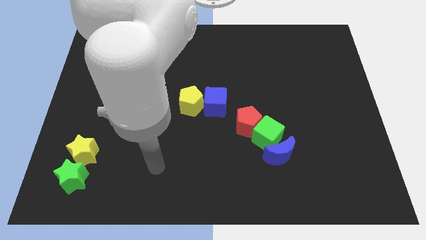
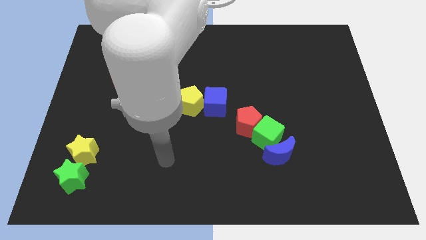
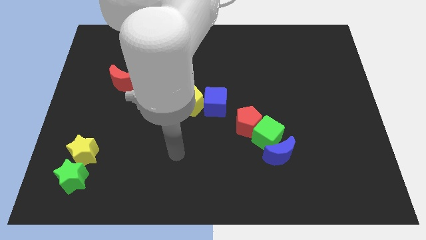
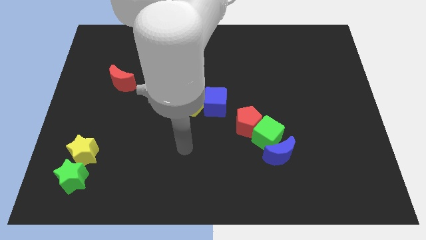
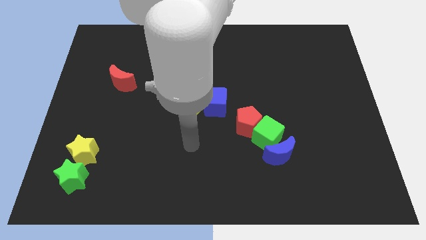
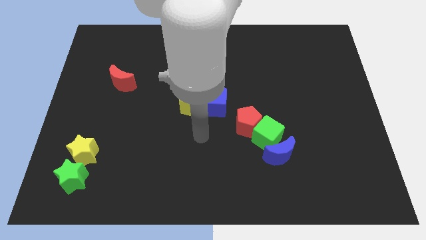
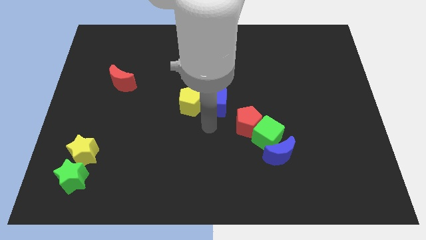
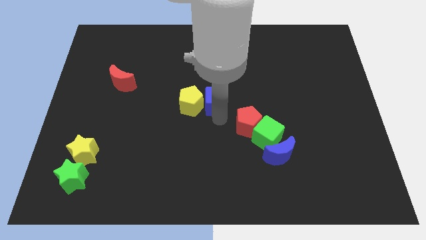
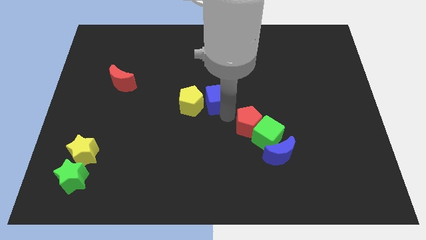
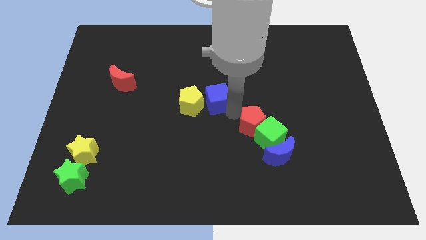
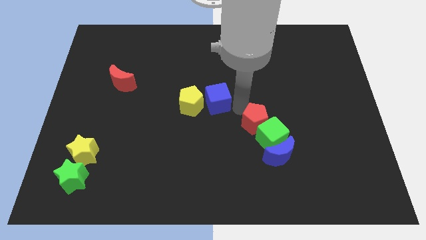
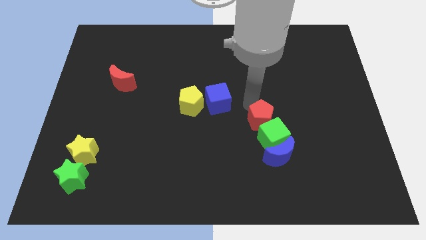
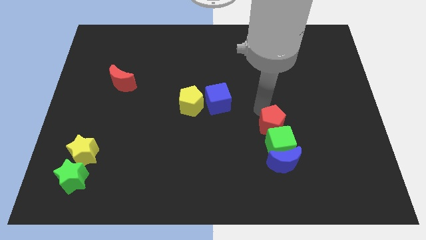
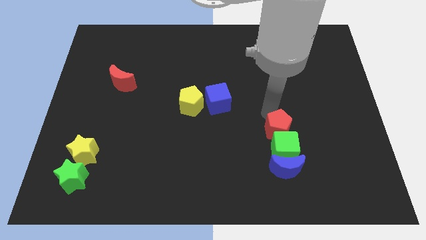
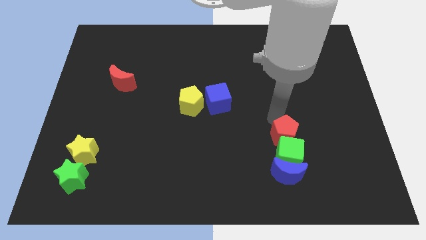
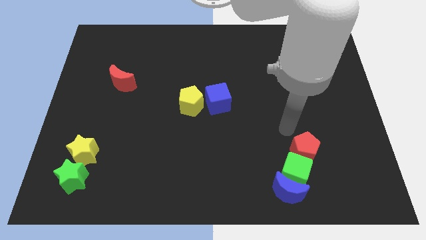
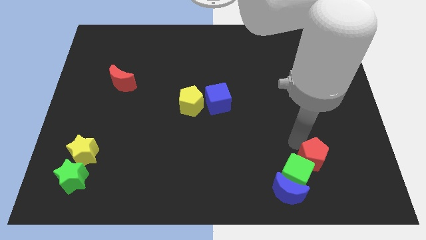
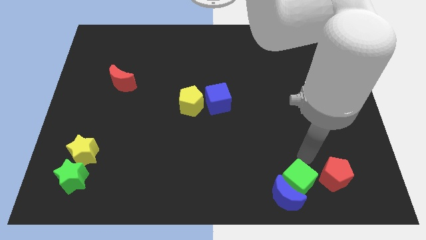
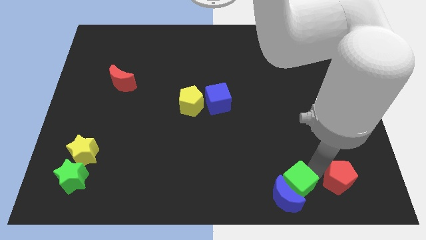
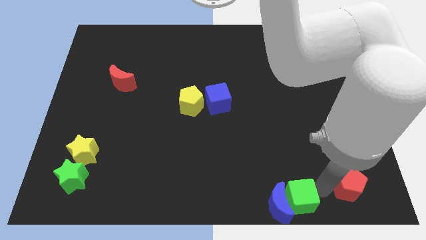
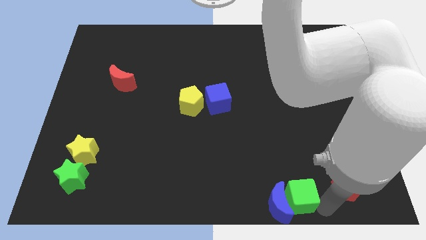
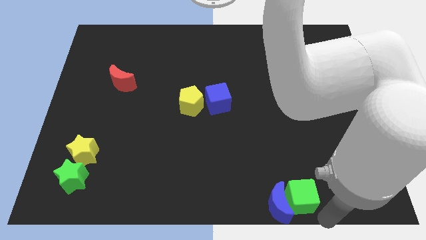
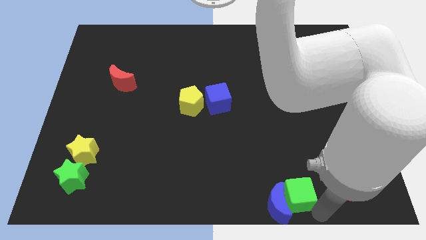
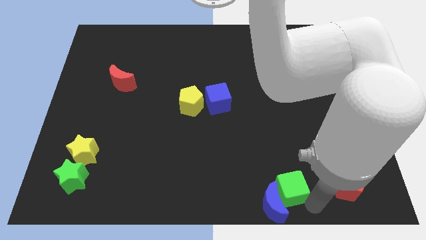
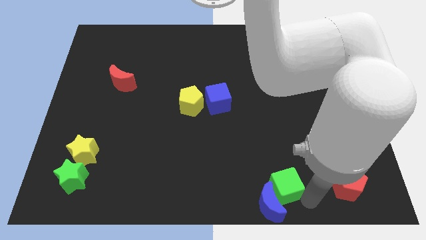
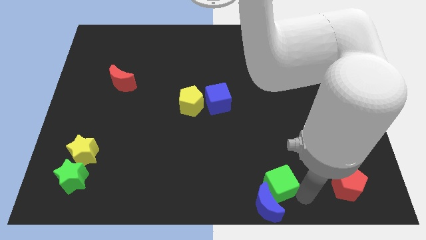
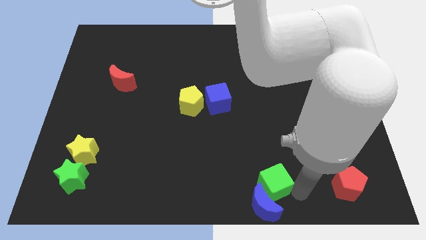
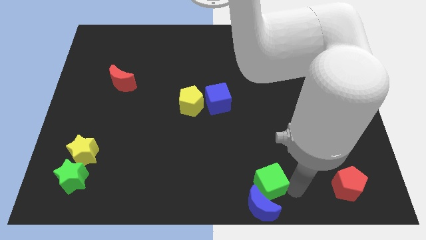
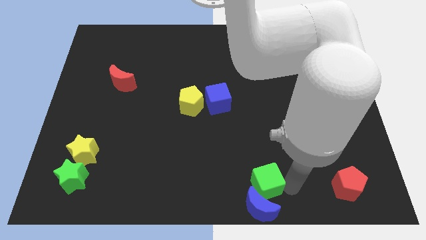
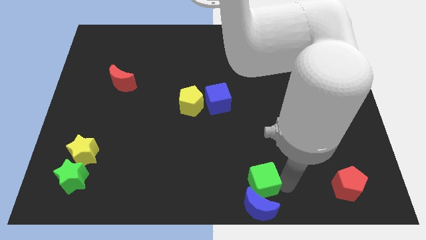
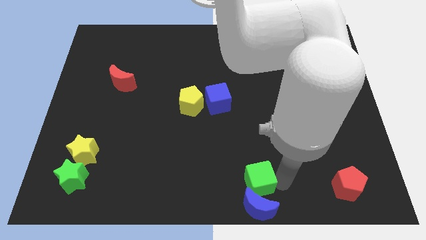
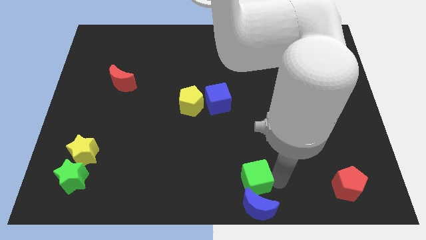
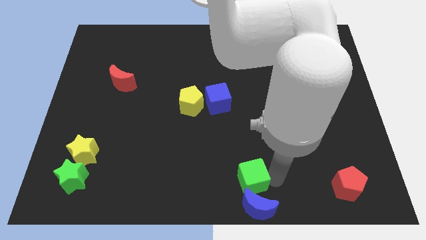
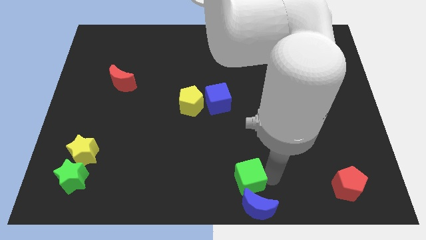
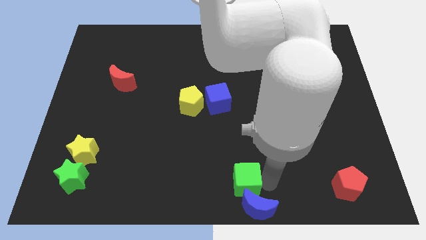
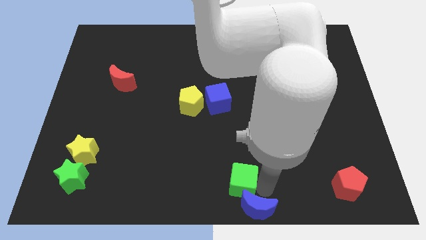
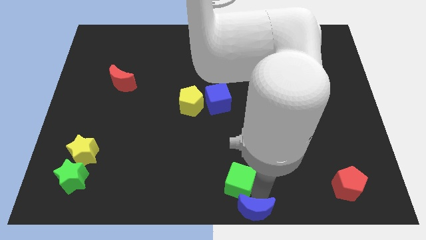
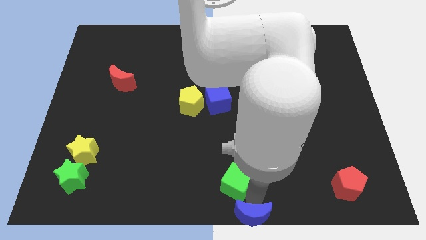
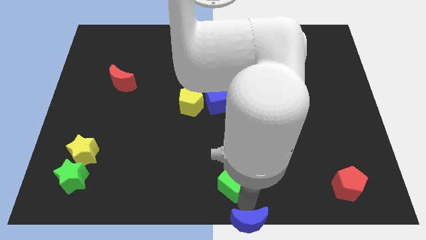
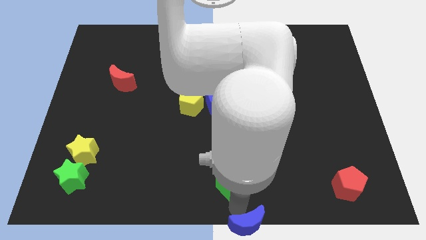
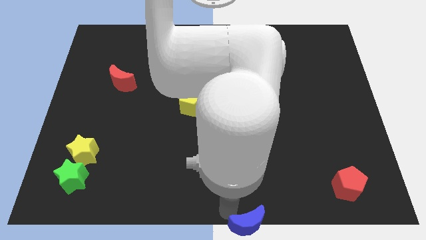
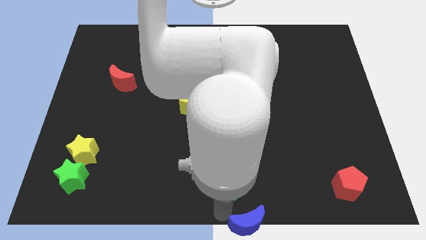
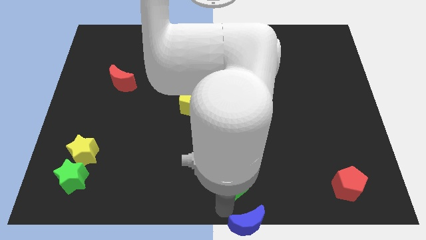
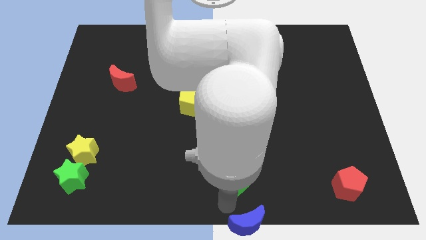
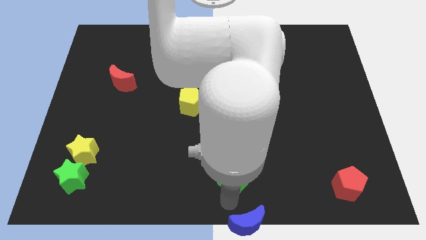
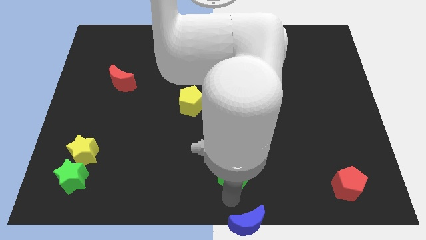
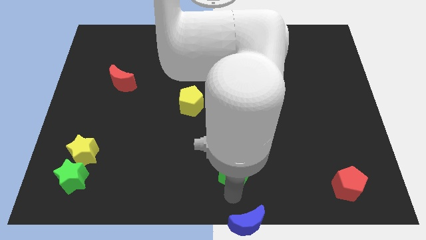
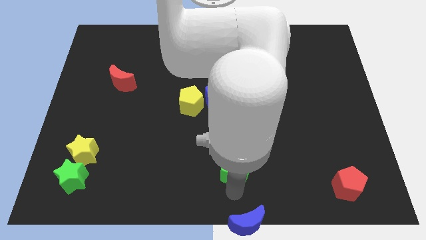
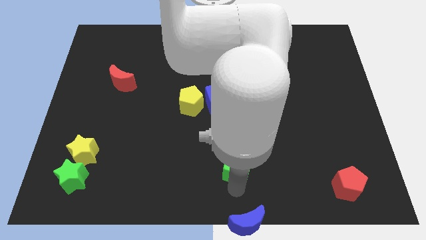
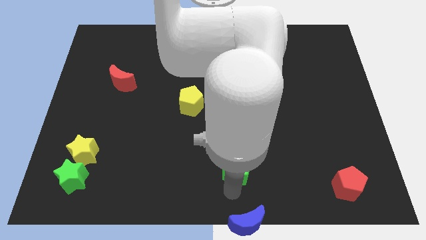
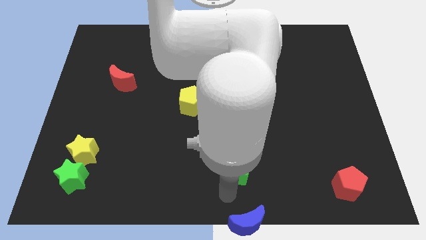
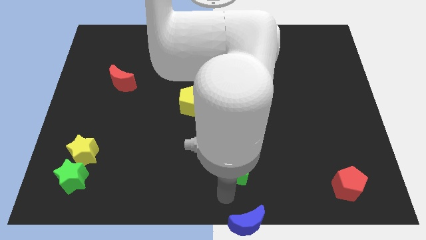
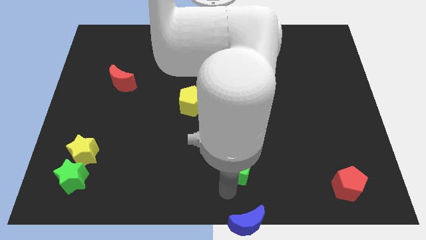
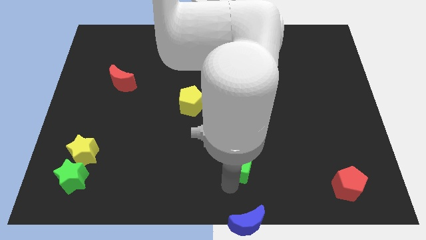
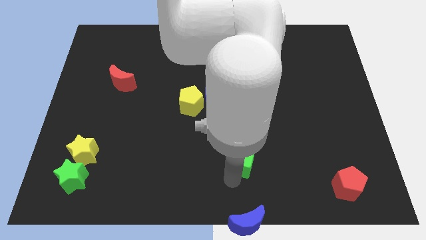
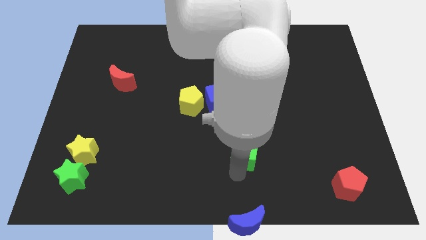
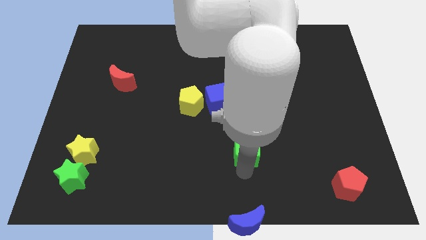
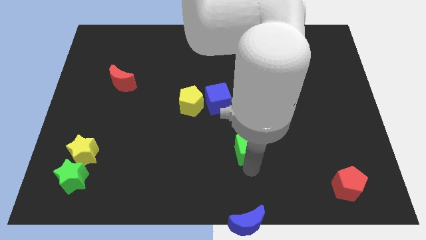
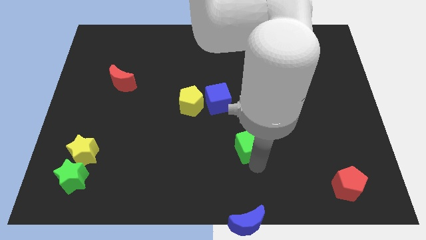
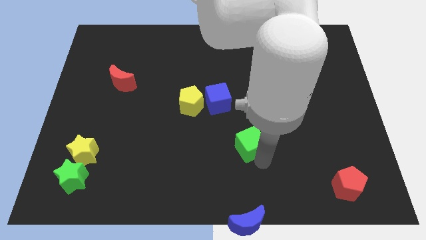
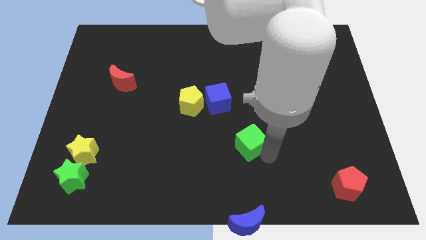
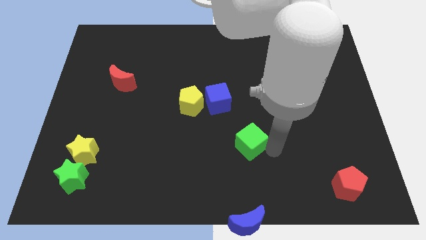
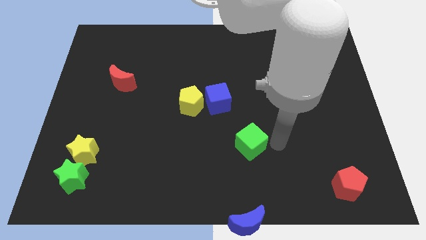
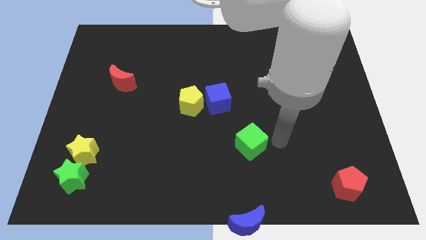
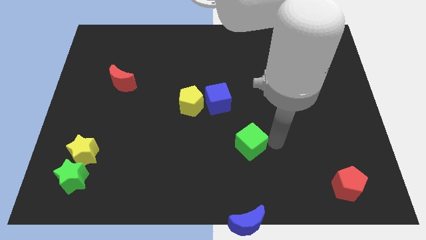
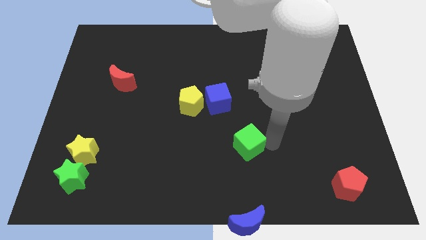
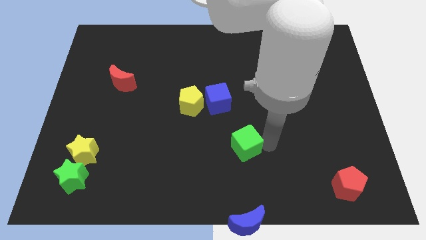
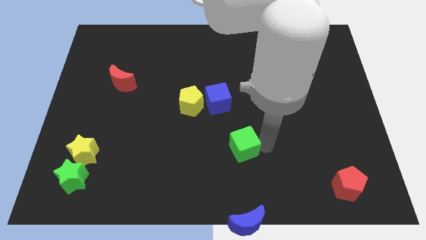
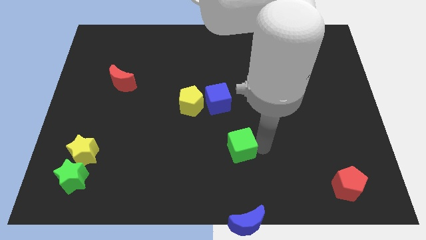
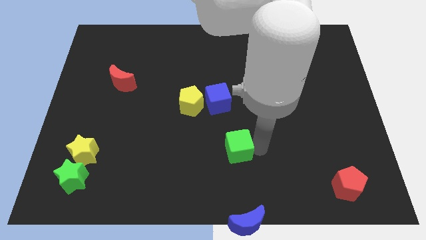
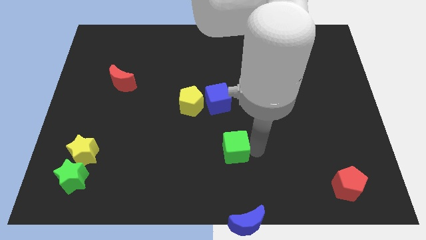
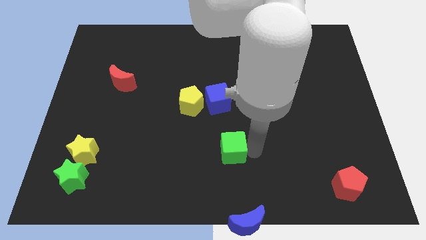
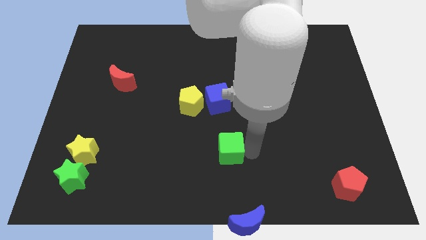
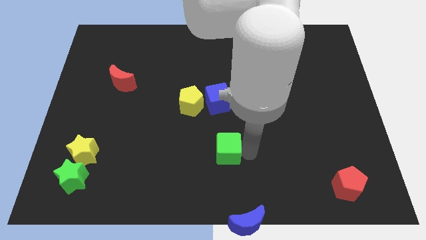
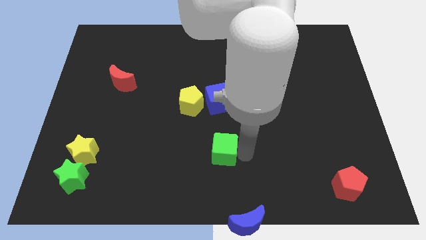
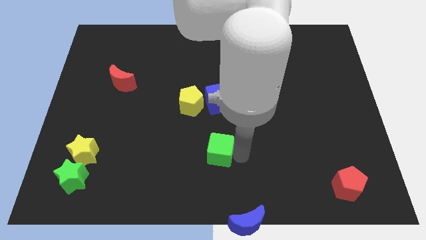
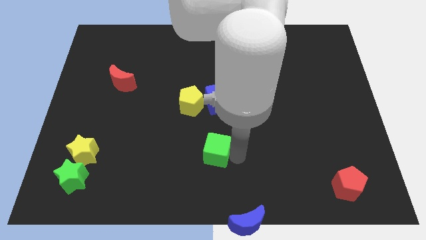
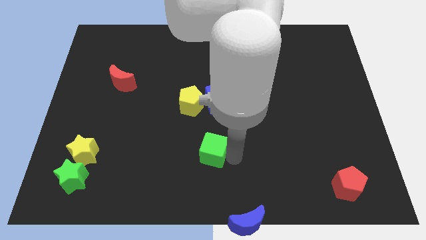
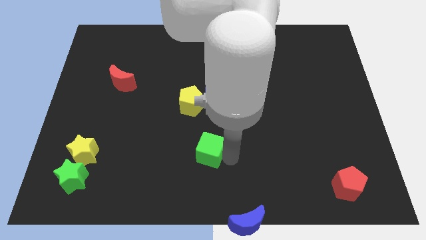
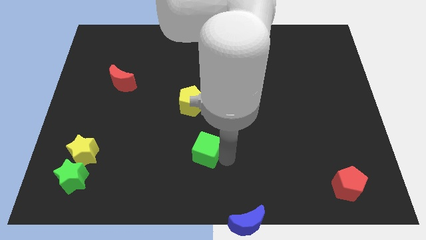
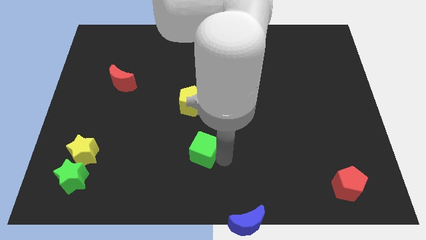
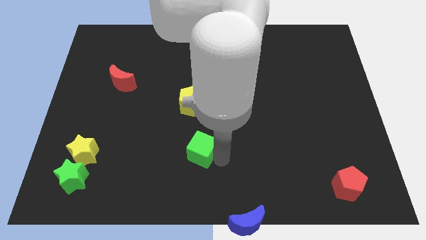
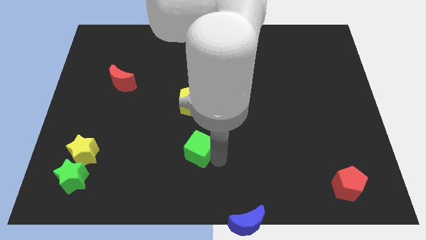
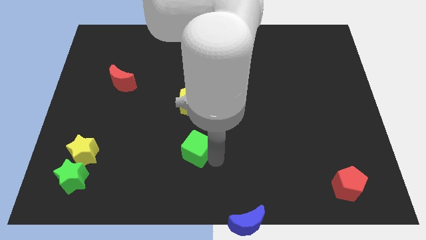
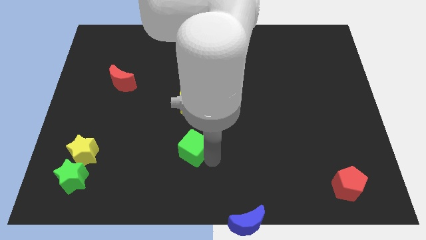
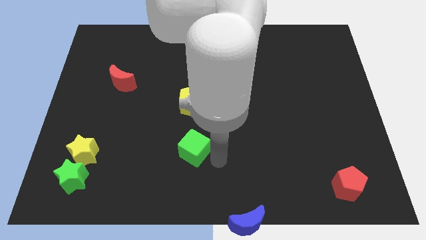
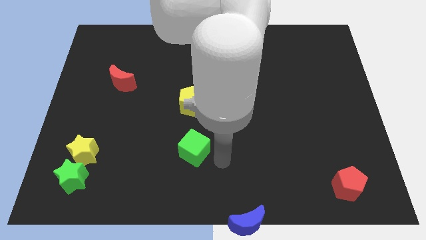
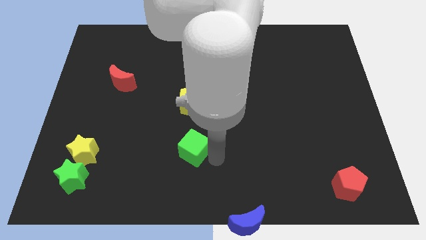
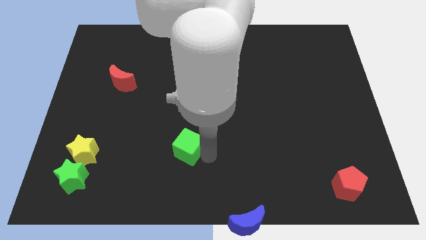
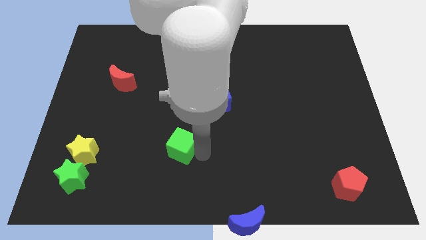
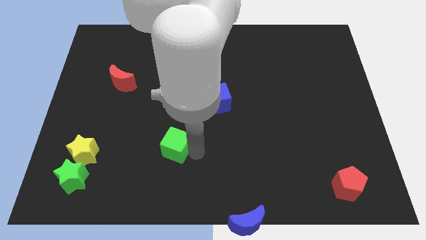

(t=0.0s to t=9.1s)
slide the green cube left
